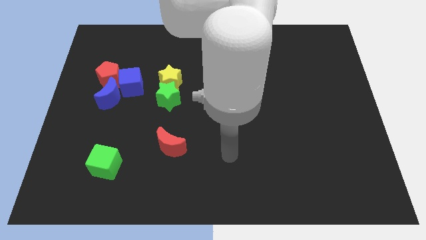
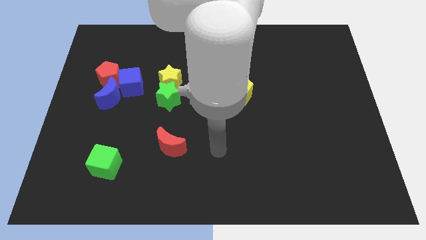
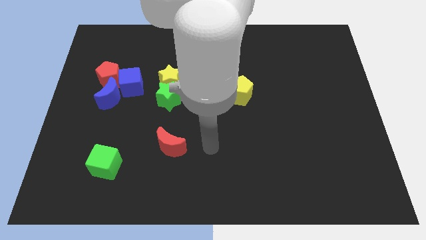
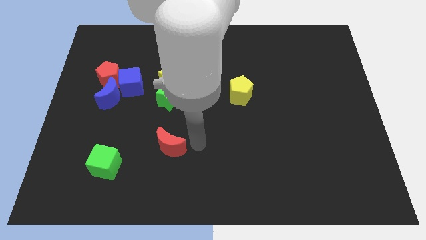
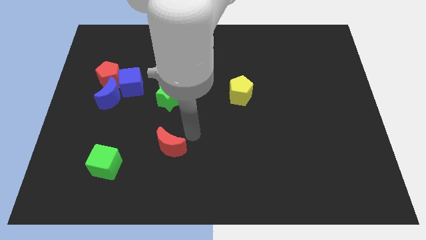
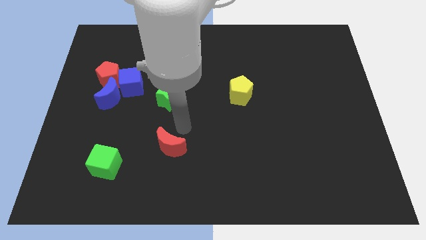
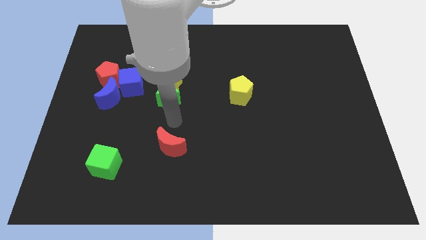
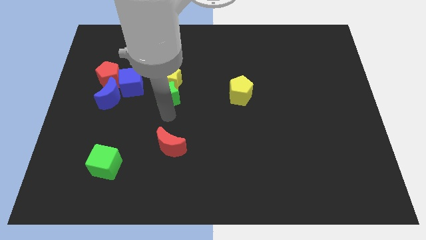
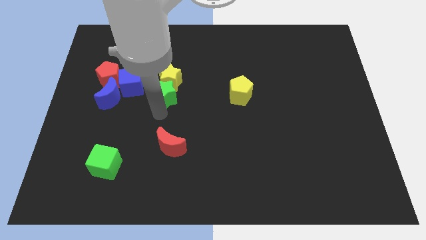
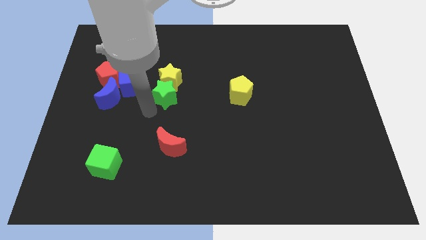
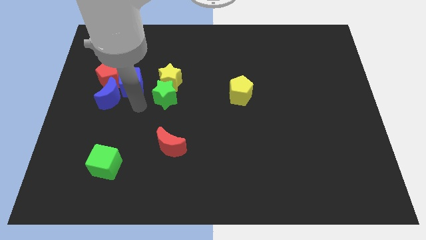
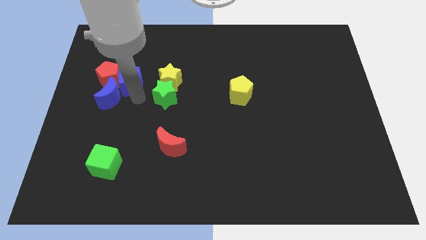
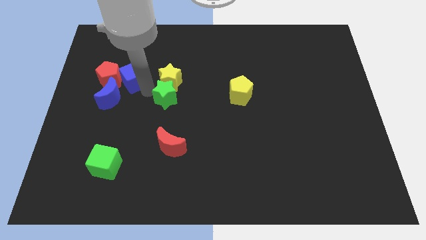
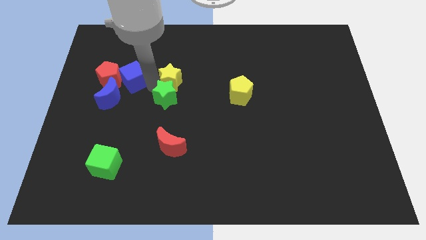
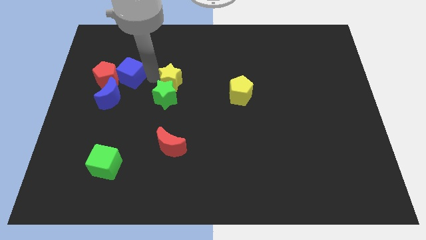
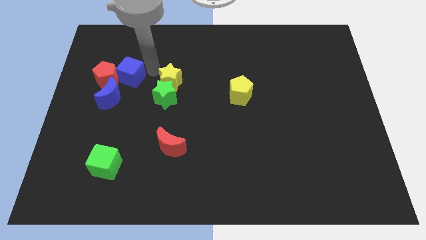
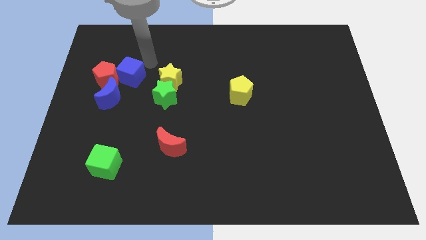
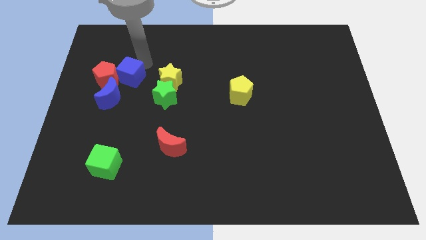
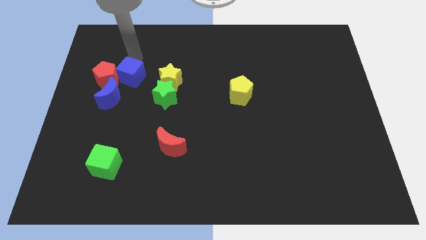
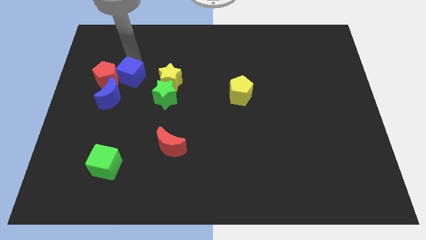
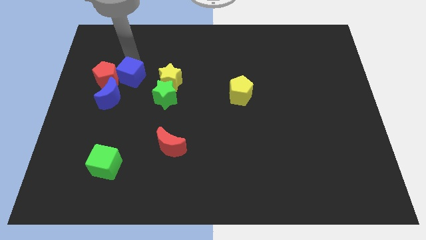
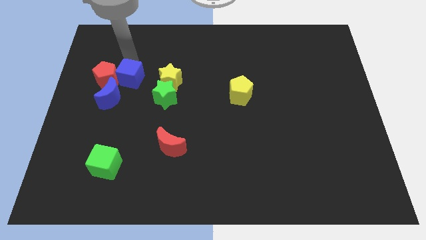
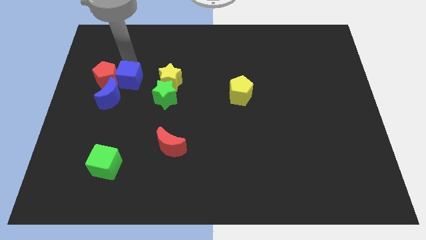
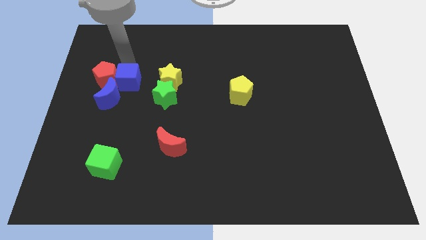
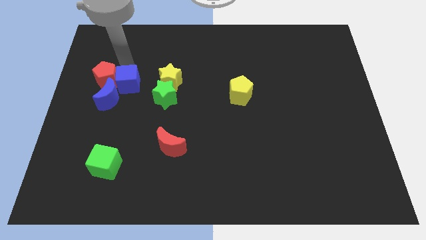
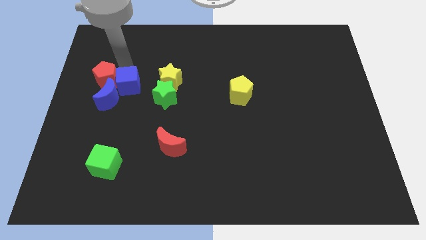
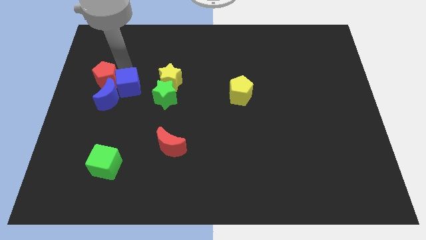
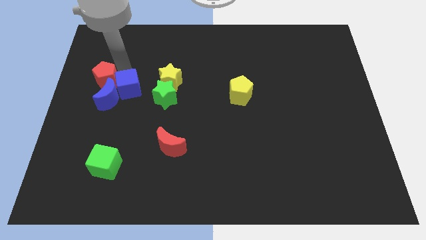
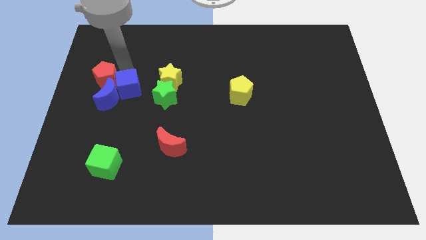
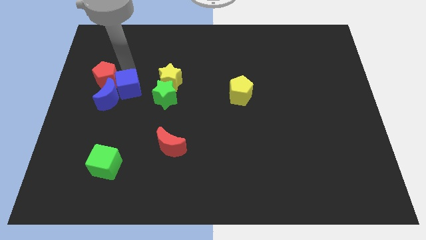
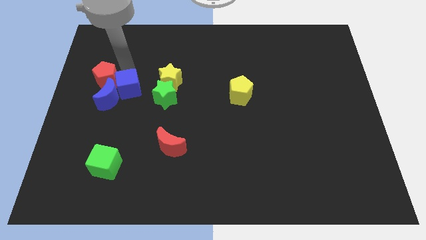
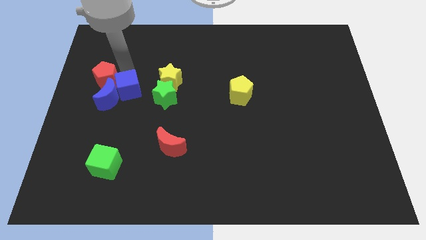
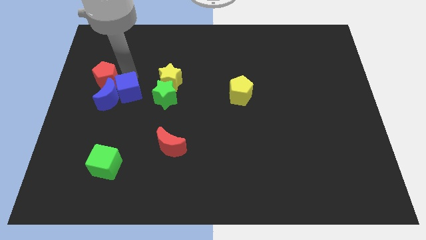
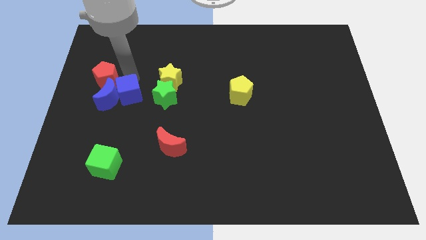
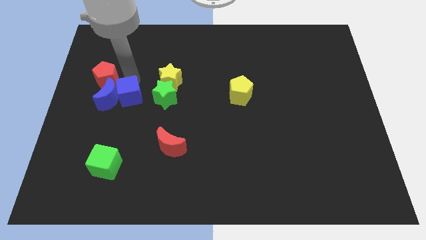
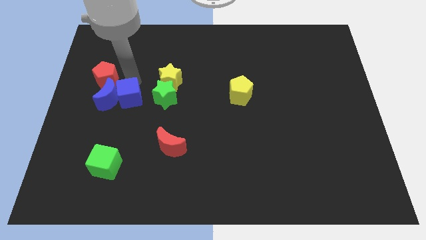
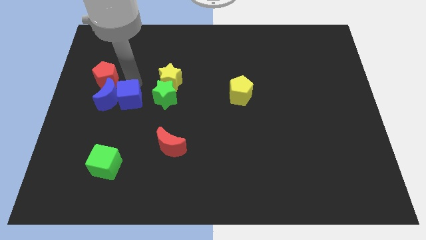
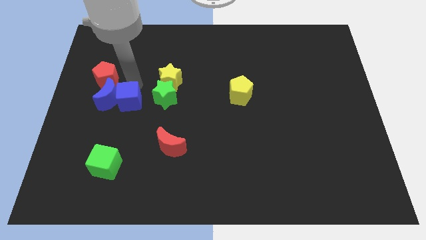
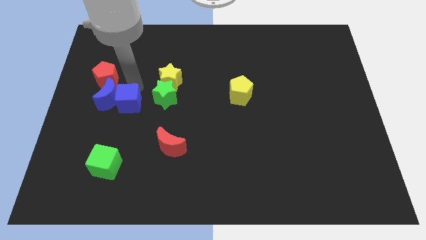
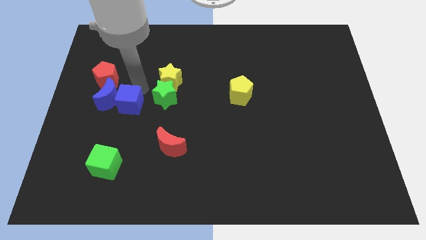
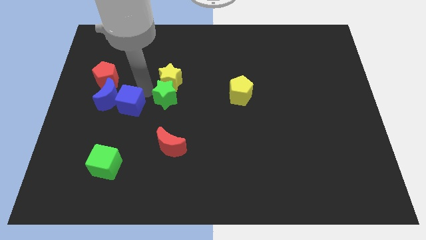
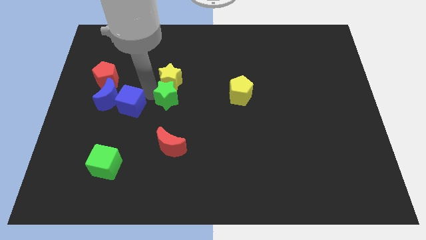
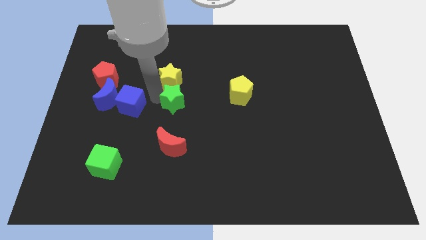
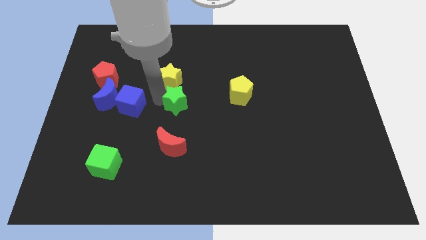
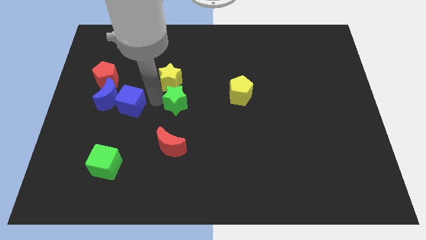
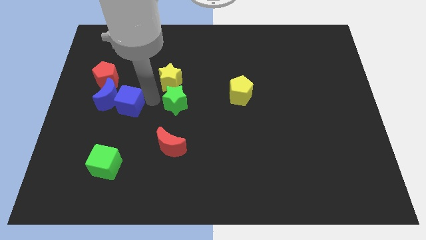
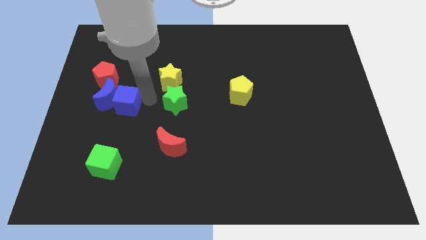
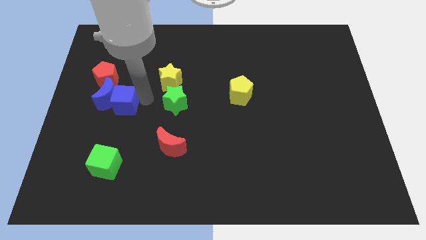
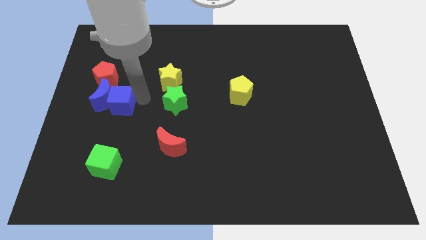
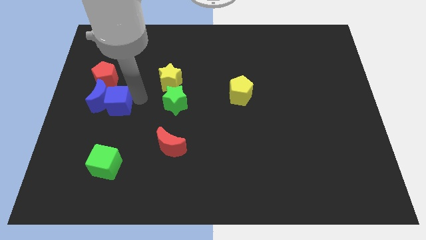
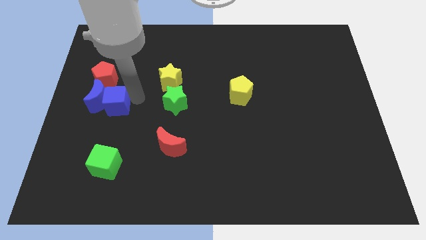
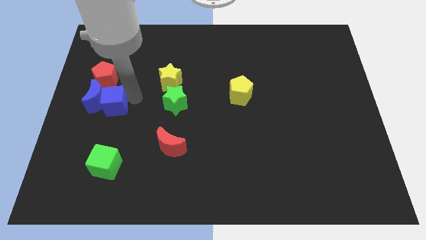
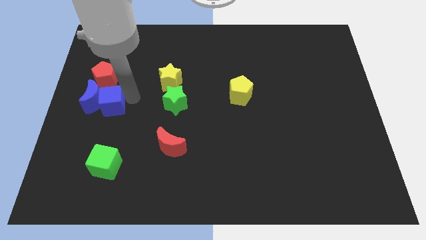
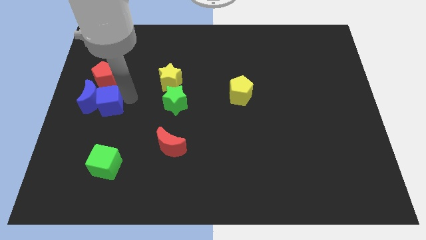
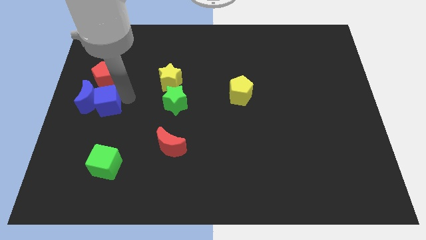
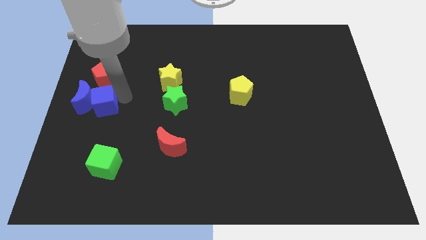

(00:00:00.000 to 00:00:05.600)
push the blue cube to the left side

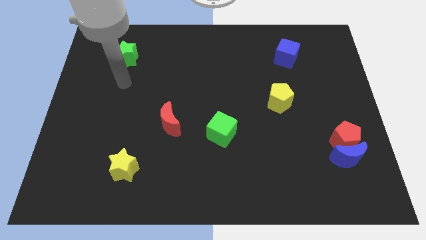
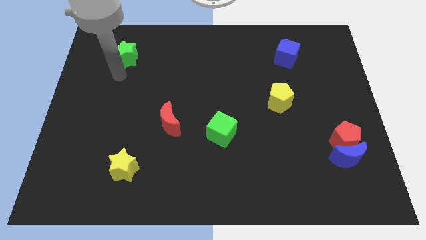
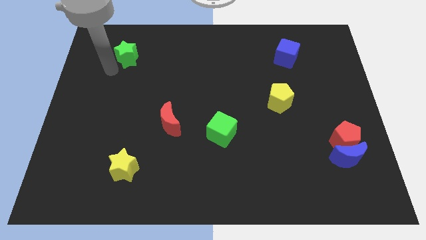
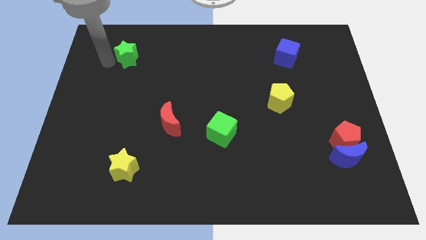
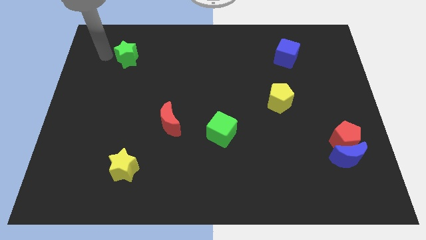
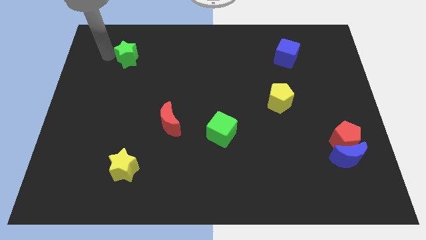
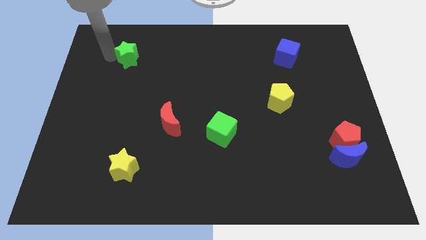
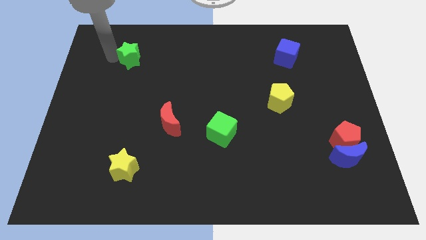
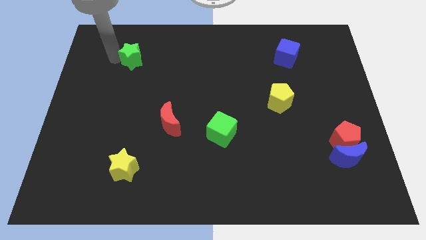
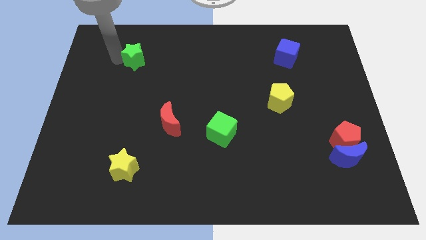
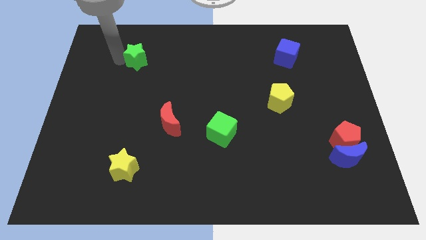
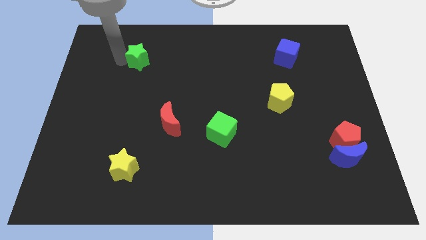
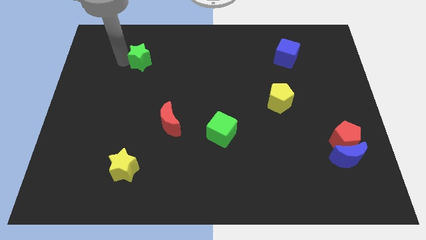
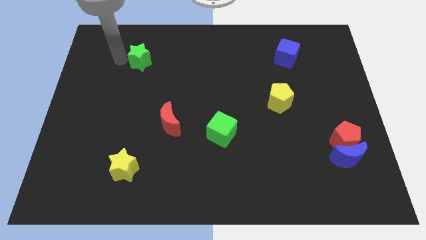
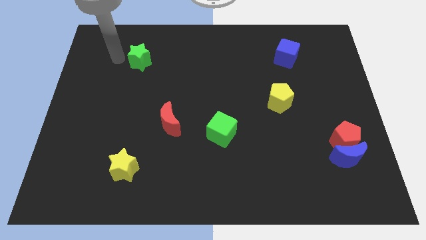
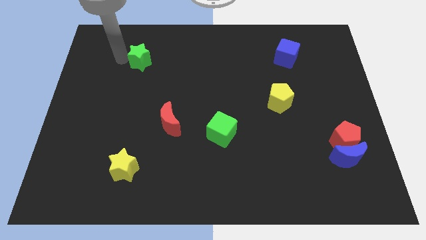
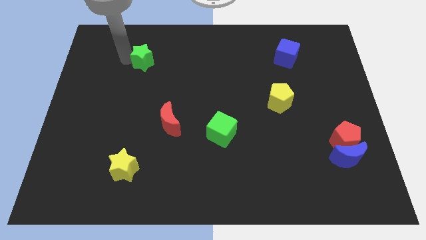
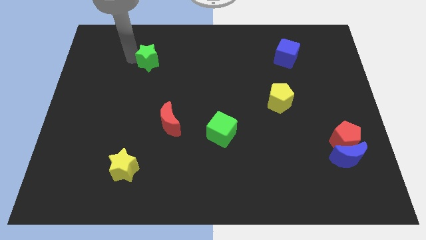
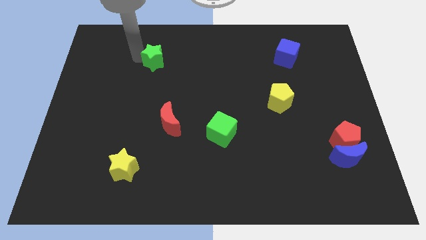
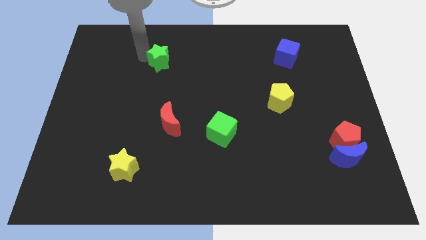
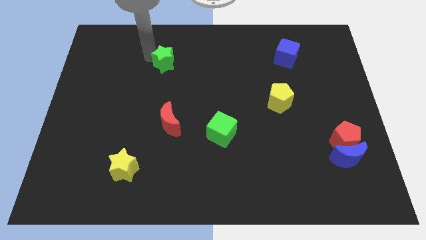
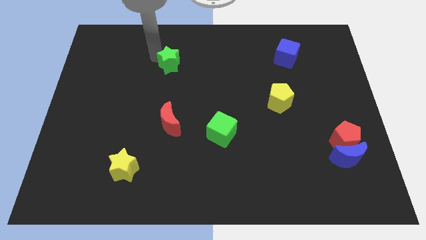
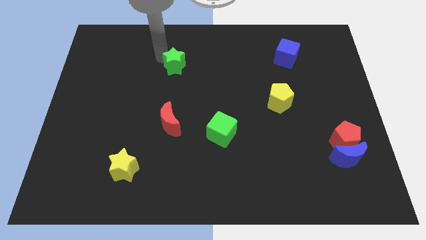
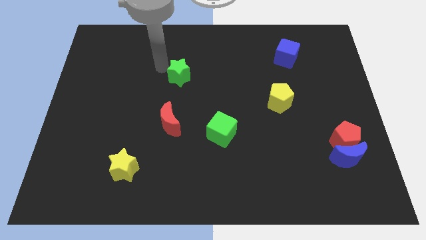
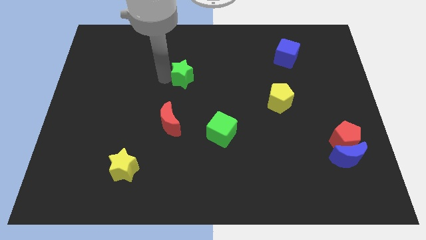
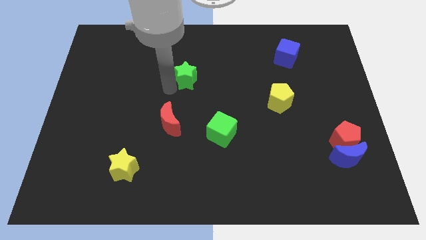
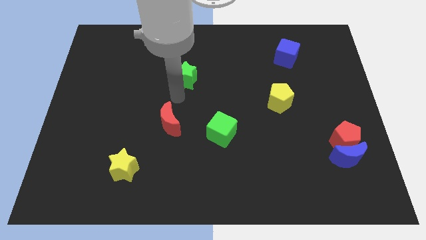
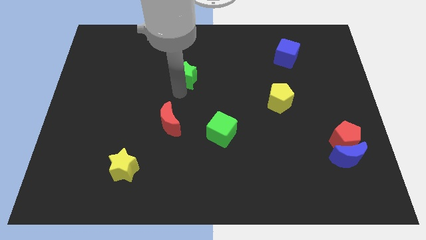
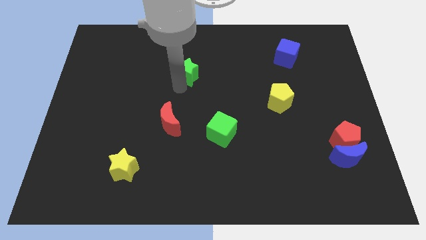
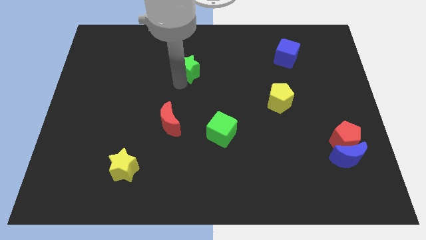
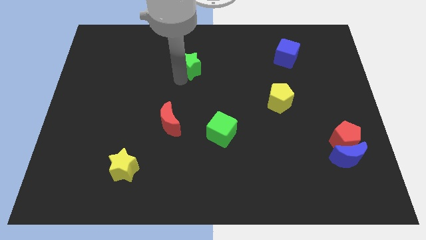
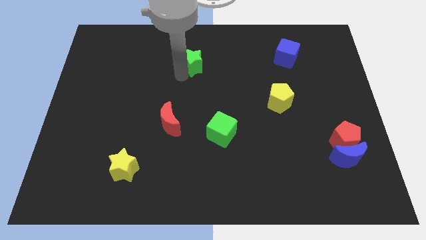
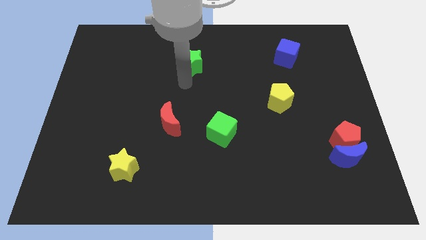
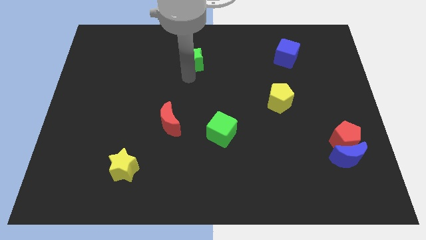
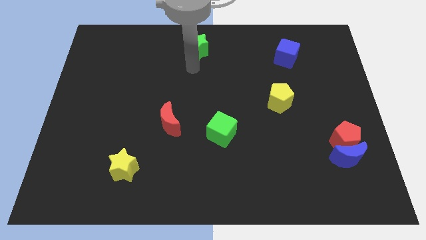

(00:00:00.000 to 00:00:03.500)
put the green star to the top side
